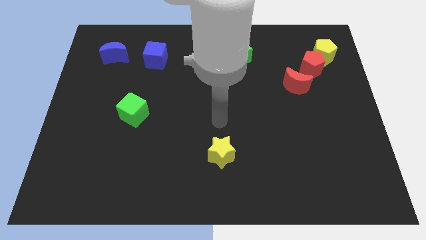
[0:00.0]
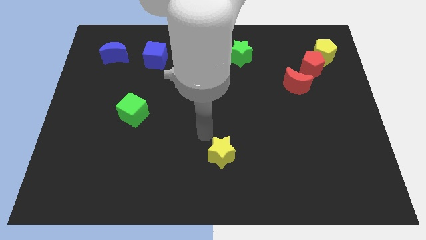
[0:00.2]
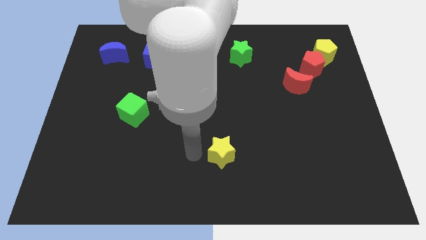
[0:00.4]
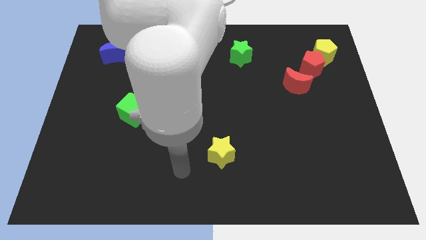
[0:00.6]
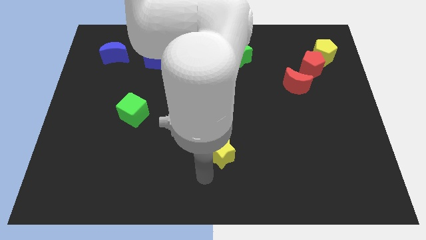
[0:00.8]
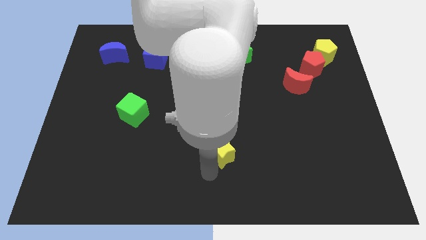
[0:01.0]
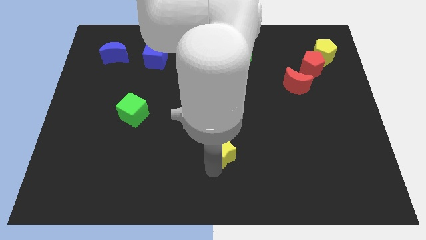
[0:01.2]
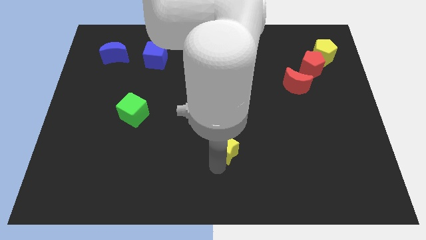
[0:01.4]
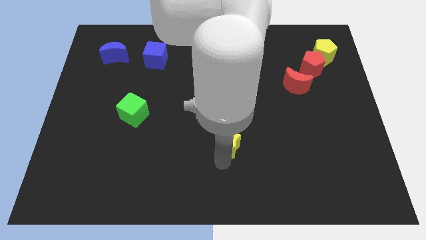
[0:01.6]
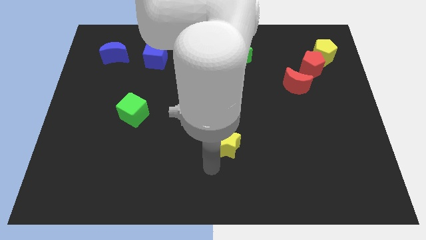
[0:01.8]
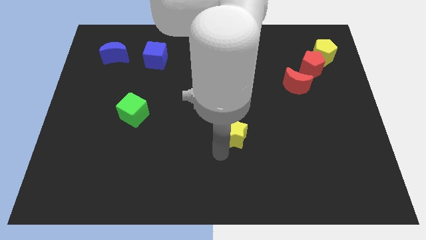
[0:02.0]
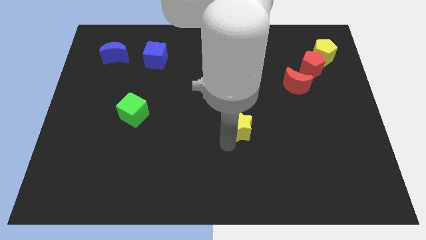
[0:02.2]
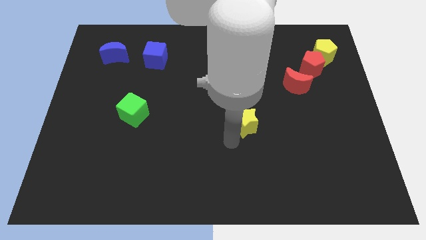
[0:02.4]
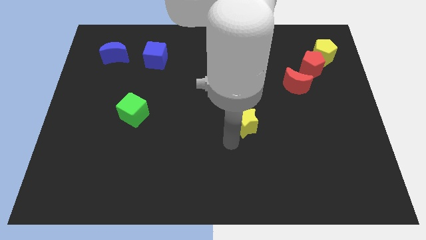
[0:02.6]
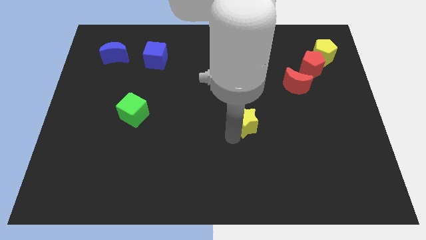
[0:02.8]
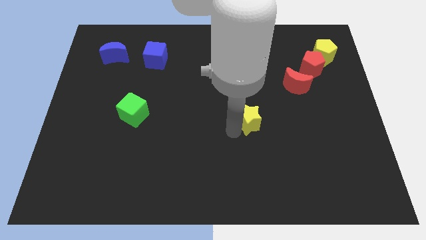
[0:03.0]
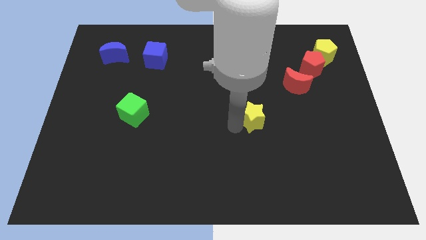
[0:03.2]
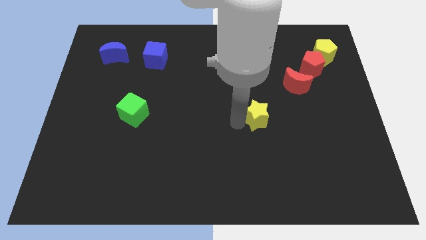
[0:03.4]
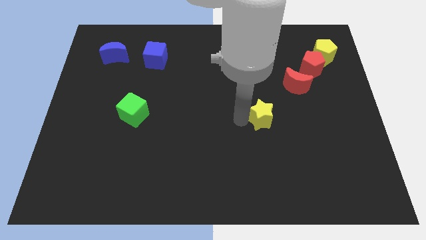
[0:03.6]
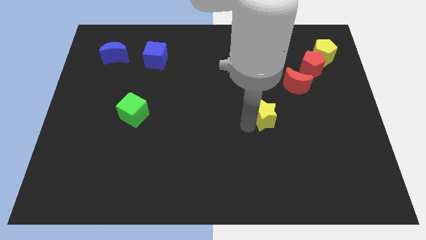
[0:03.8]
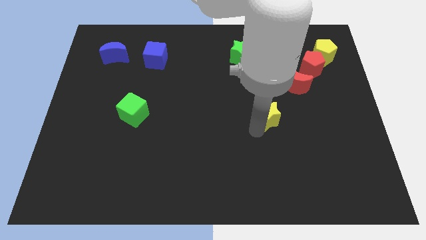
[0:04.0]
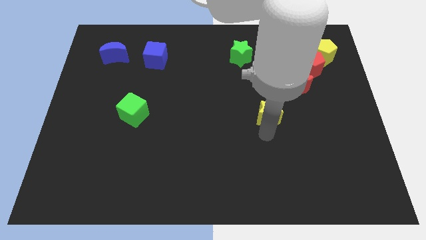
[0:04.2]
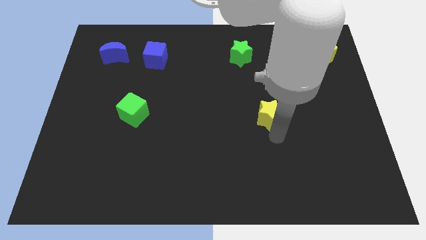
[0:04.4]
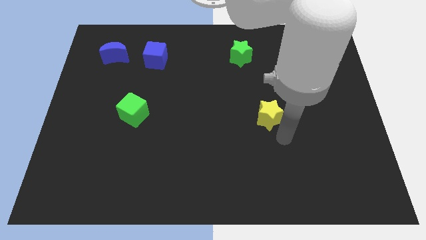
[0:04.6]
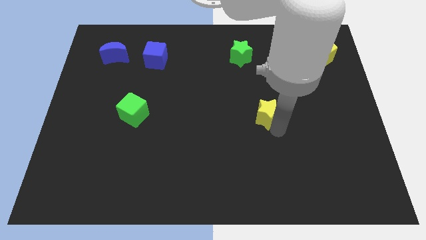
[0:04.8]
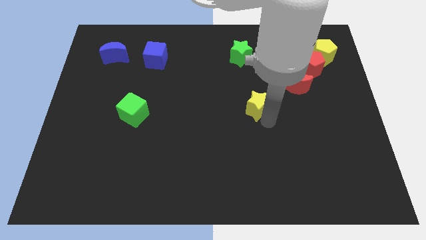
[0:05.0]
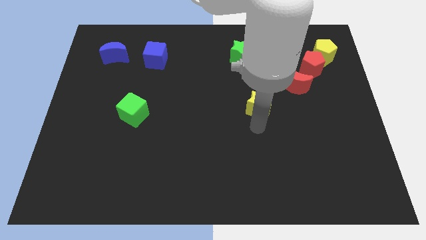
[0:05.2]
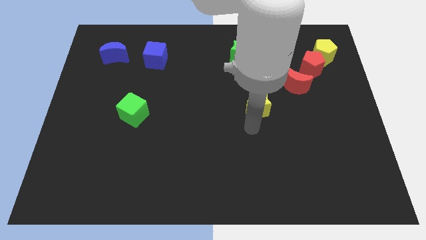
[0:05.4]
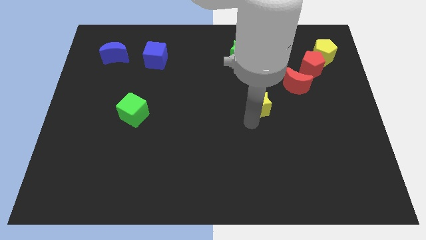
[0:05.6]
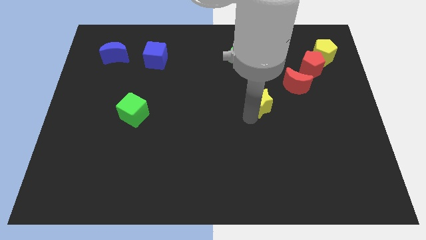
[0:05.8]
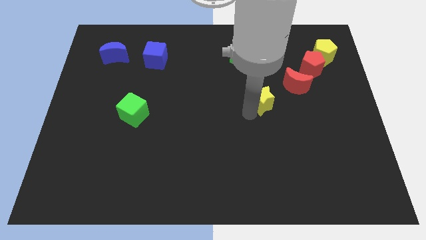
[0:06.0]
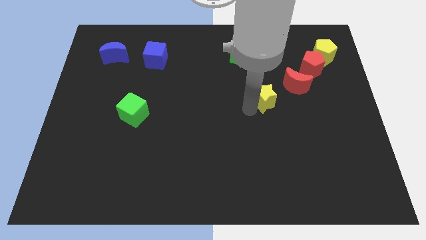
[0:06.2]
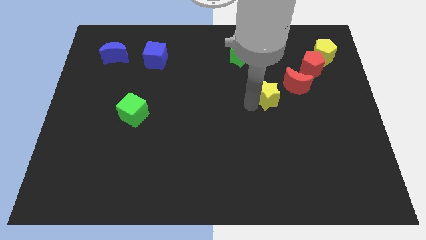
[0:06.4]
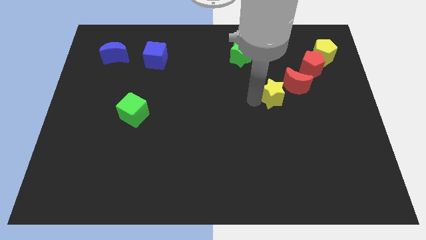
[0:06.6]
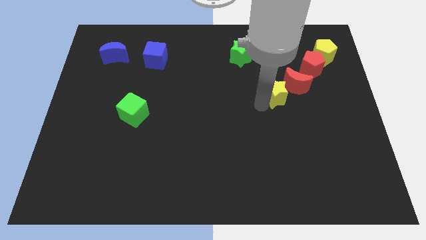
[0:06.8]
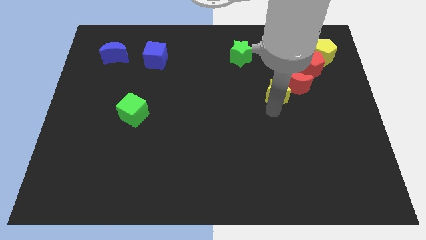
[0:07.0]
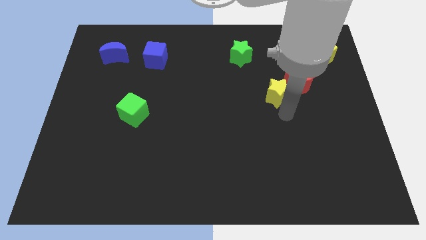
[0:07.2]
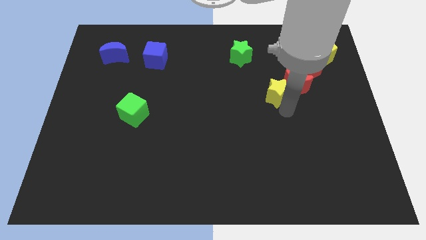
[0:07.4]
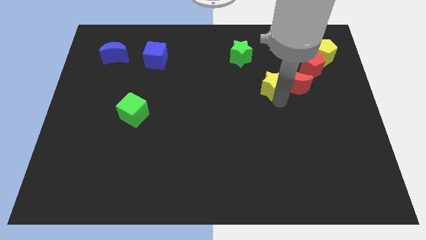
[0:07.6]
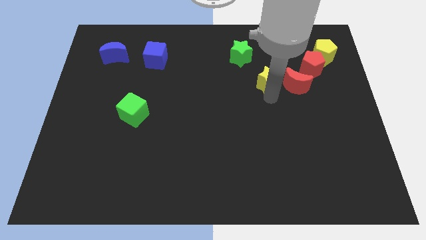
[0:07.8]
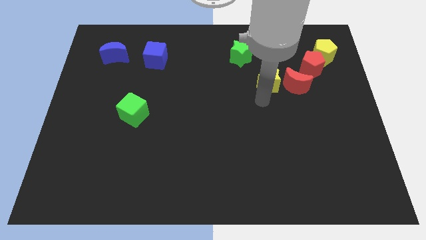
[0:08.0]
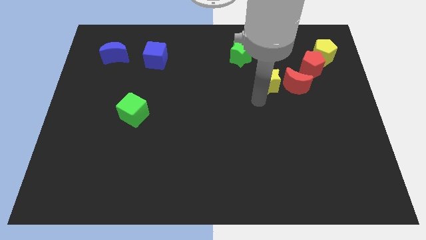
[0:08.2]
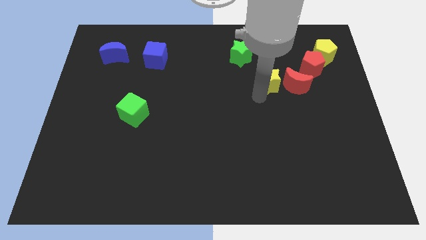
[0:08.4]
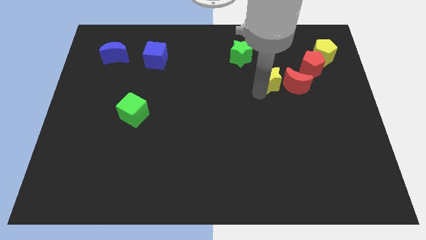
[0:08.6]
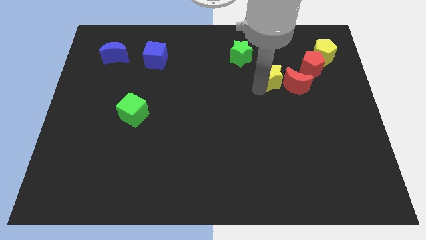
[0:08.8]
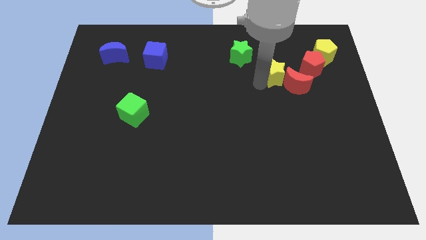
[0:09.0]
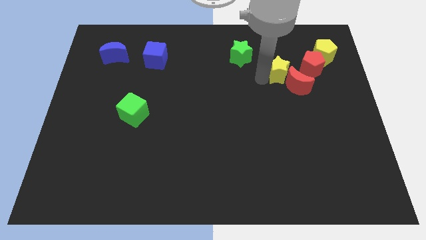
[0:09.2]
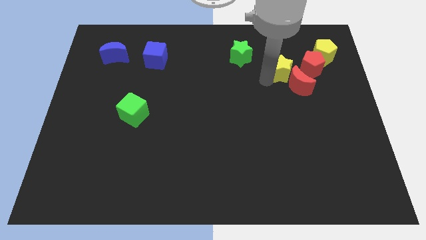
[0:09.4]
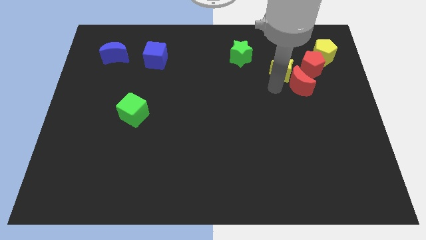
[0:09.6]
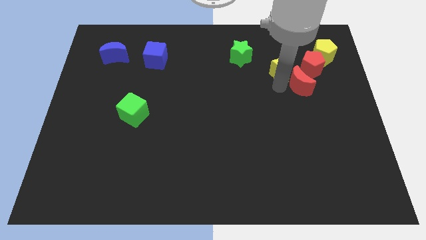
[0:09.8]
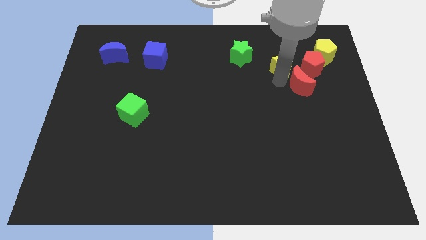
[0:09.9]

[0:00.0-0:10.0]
slide the yellow star right of the green star

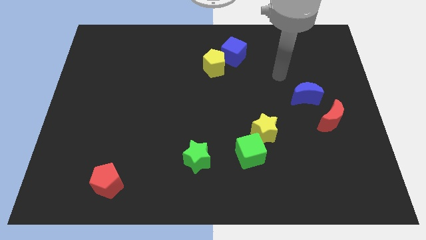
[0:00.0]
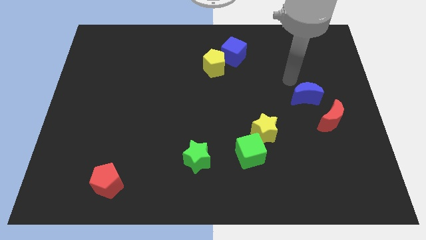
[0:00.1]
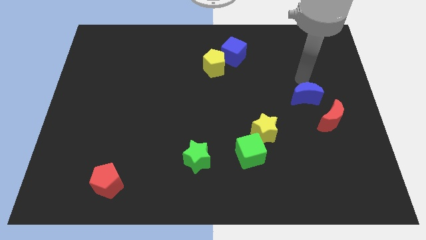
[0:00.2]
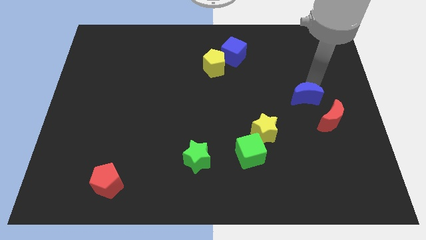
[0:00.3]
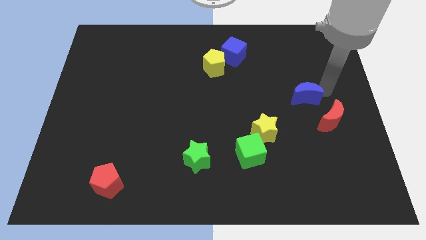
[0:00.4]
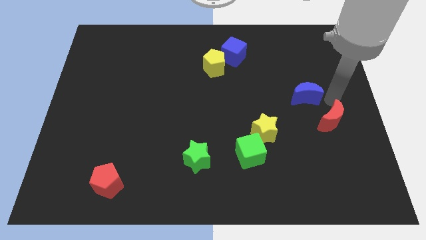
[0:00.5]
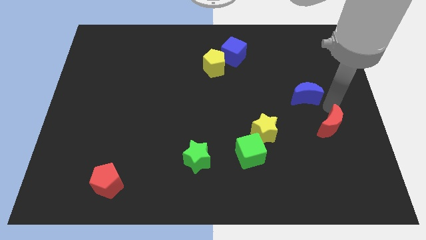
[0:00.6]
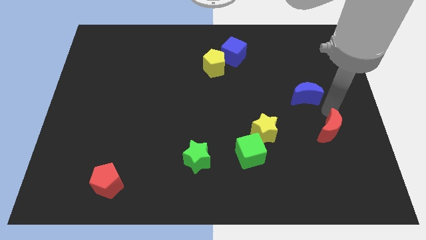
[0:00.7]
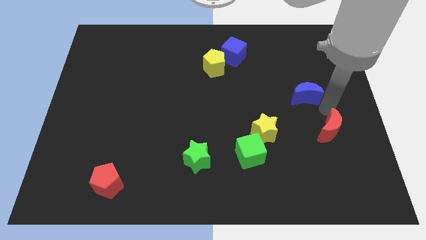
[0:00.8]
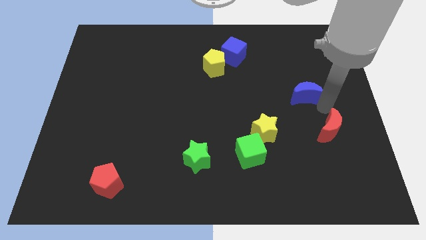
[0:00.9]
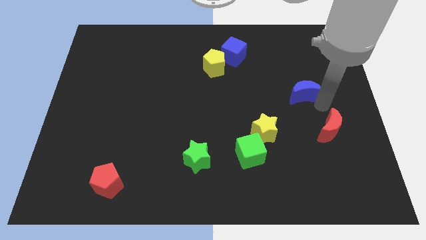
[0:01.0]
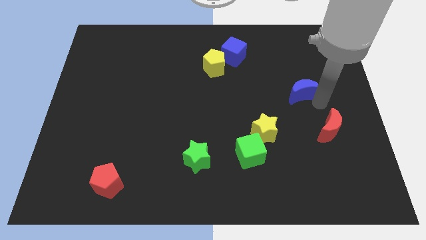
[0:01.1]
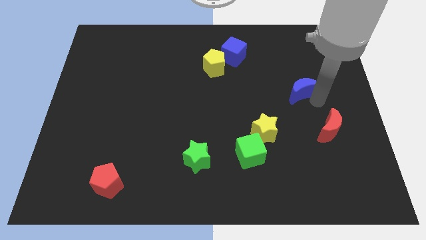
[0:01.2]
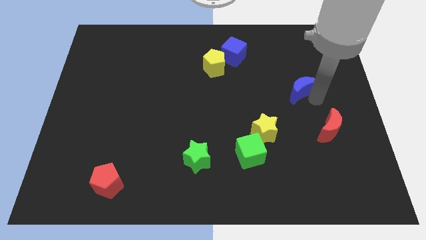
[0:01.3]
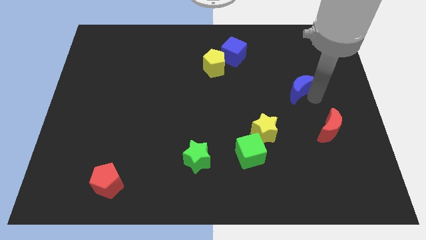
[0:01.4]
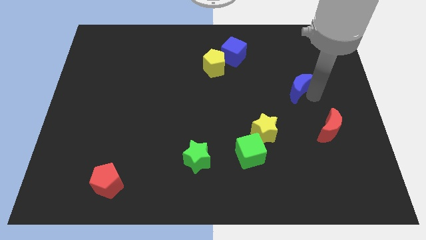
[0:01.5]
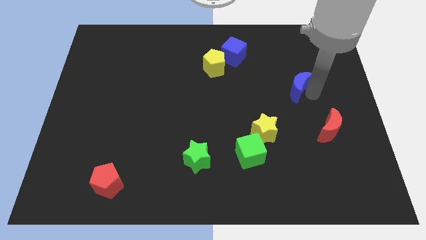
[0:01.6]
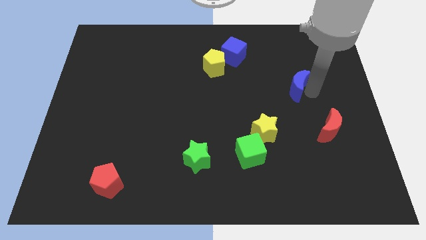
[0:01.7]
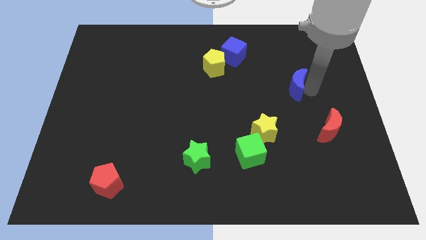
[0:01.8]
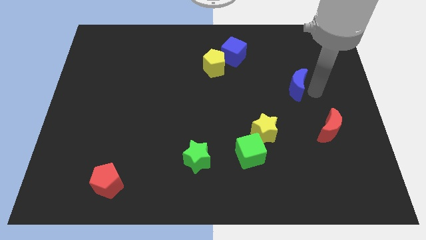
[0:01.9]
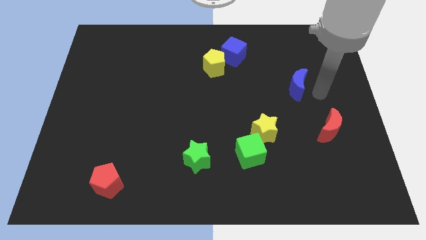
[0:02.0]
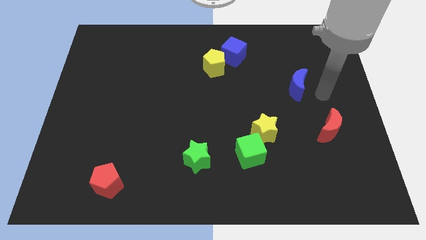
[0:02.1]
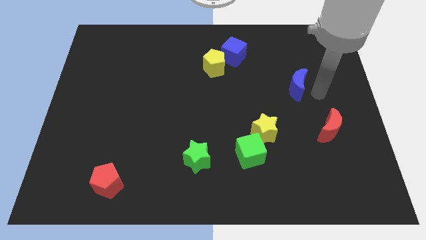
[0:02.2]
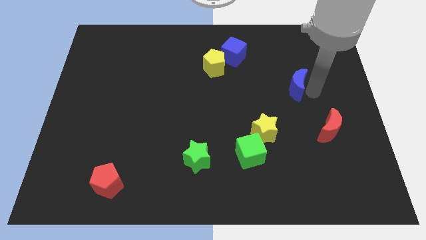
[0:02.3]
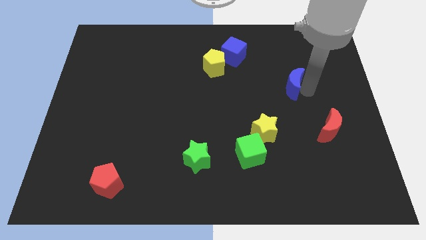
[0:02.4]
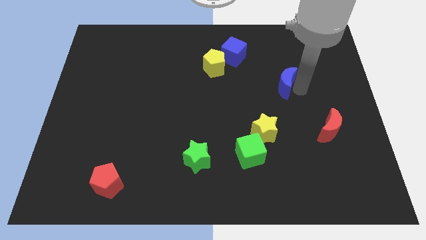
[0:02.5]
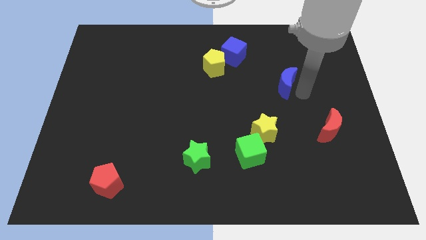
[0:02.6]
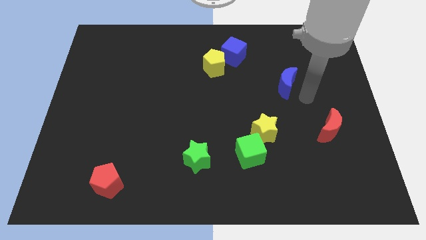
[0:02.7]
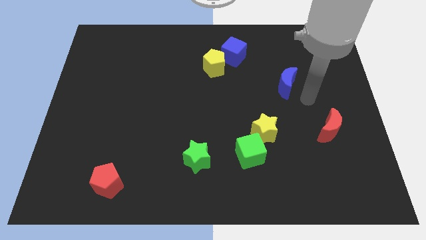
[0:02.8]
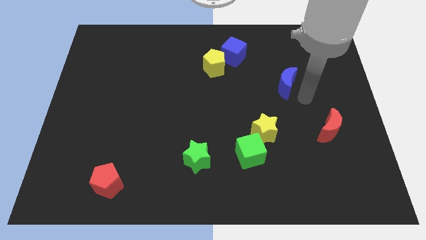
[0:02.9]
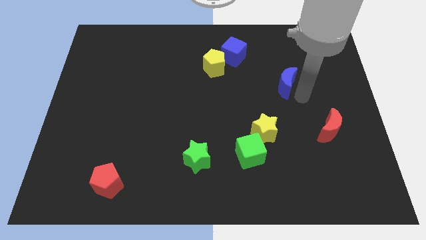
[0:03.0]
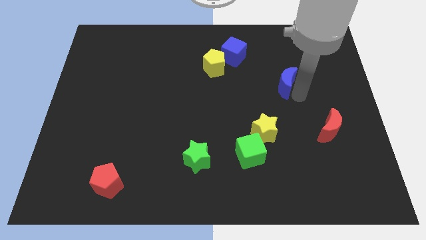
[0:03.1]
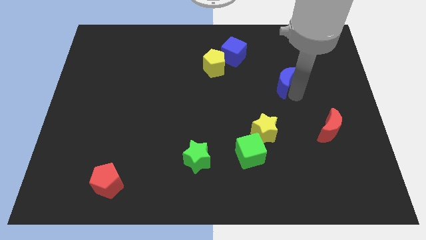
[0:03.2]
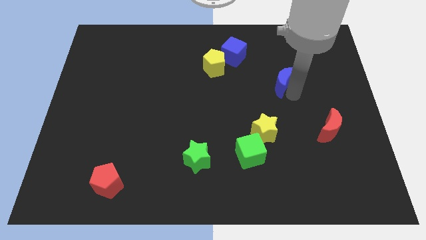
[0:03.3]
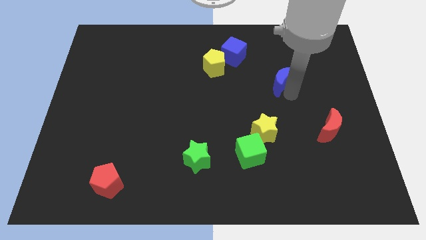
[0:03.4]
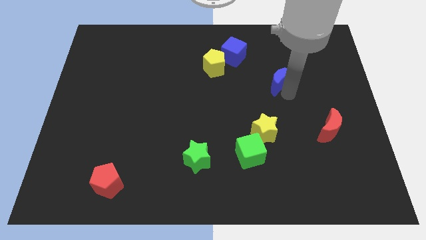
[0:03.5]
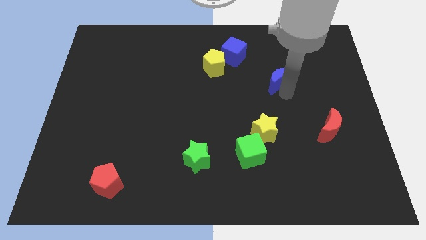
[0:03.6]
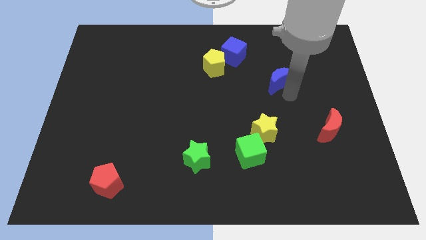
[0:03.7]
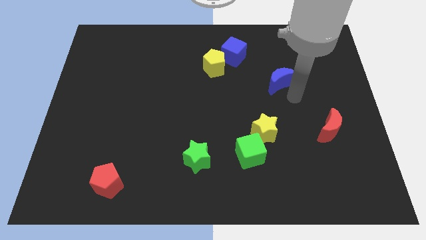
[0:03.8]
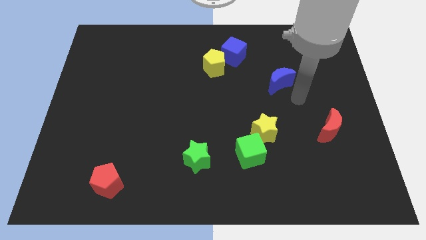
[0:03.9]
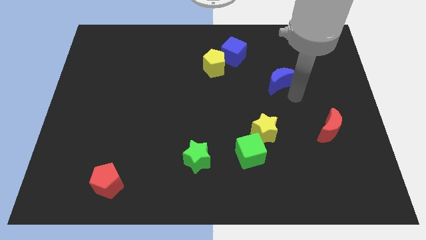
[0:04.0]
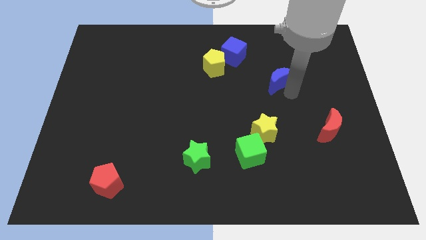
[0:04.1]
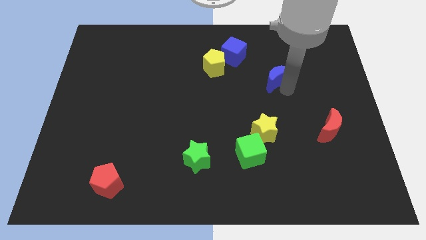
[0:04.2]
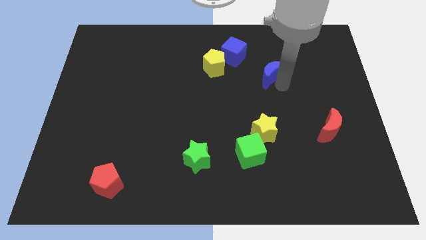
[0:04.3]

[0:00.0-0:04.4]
slide the blue moon to the right of the yellow pentagon
